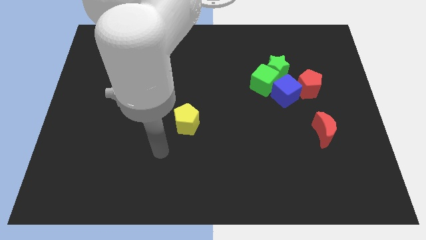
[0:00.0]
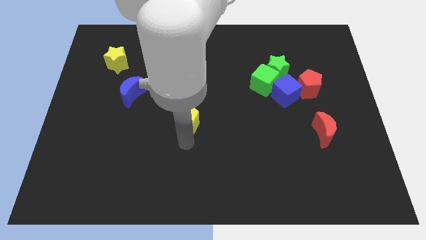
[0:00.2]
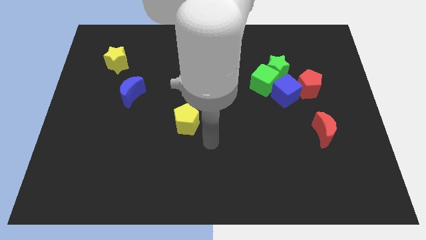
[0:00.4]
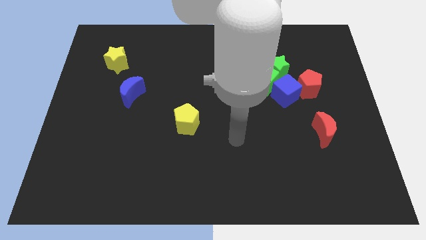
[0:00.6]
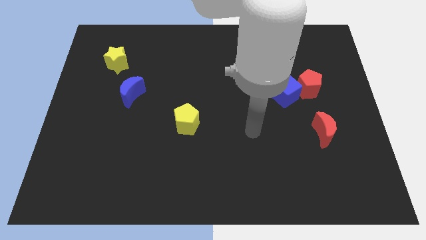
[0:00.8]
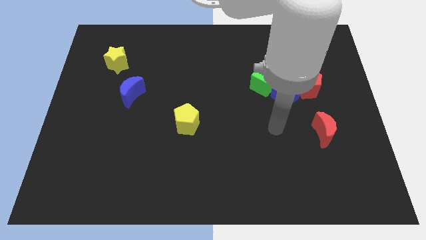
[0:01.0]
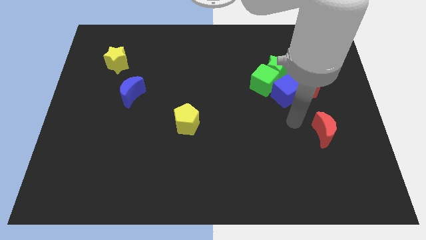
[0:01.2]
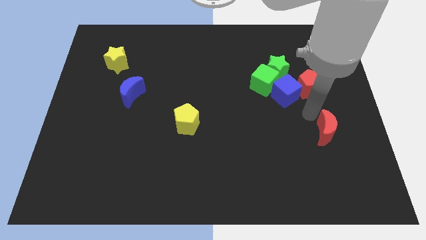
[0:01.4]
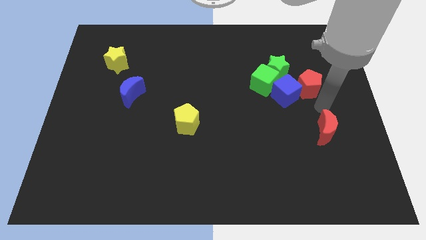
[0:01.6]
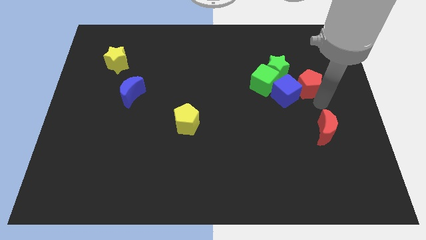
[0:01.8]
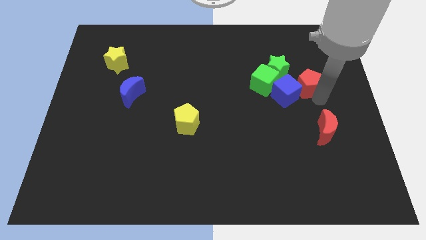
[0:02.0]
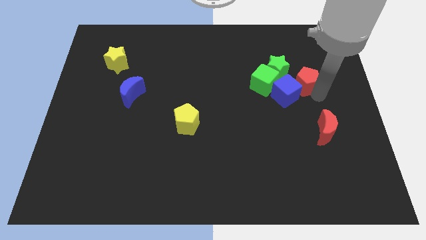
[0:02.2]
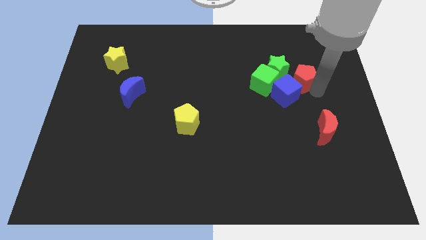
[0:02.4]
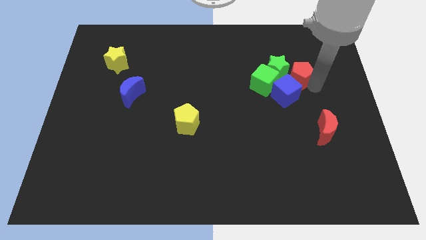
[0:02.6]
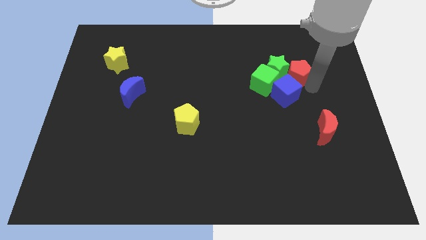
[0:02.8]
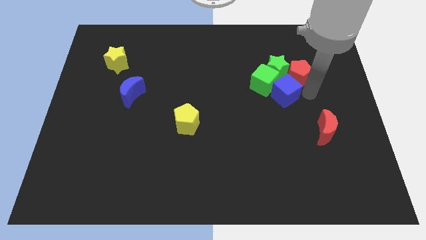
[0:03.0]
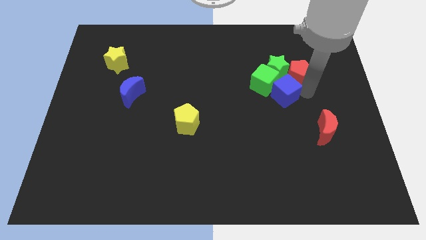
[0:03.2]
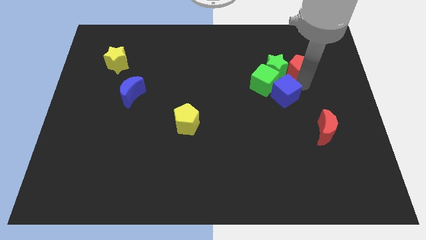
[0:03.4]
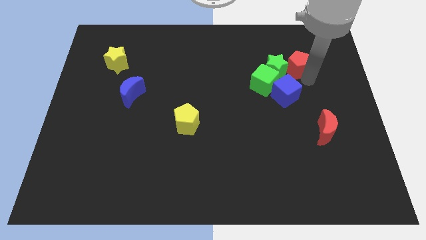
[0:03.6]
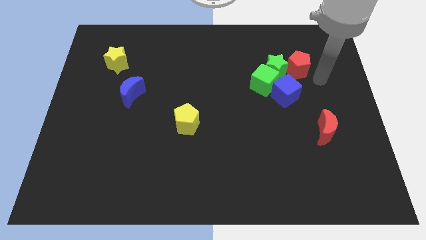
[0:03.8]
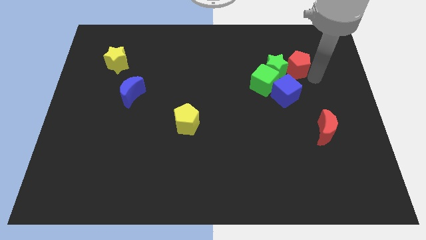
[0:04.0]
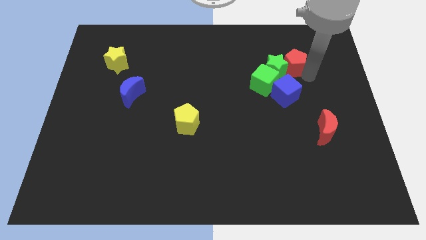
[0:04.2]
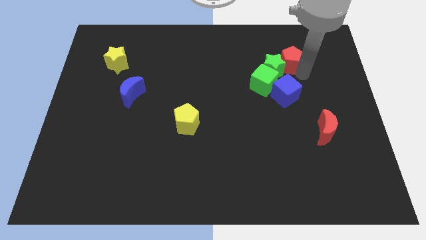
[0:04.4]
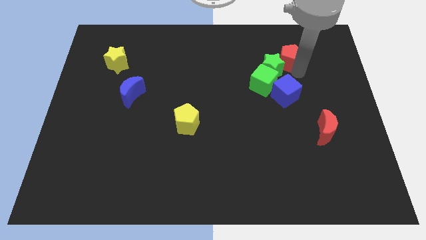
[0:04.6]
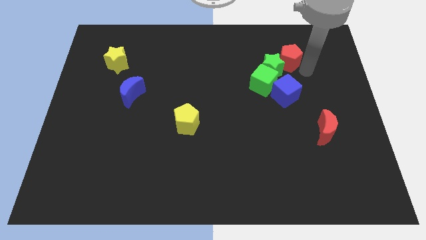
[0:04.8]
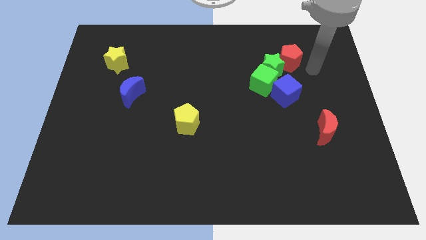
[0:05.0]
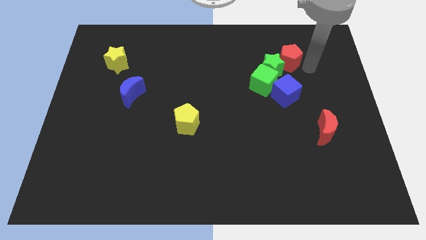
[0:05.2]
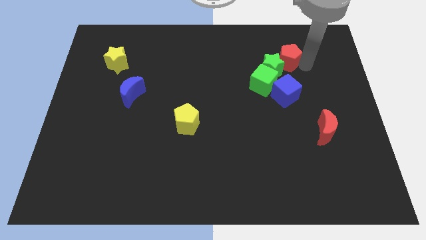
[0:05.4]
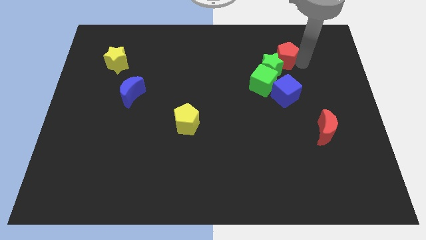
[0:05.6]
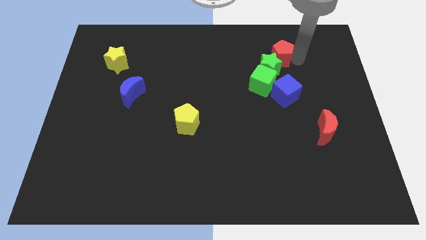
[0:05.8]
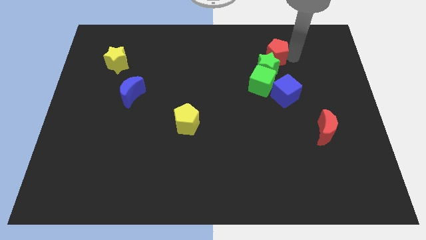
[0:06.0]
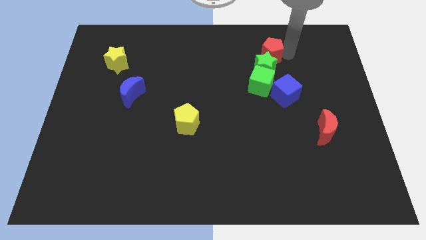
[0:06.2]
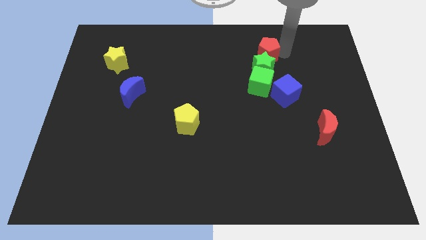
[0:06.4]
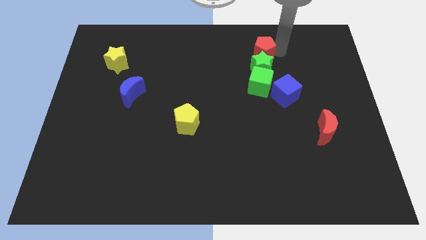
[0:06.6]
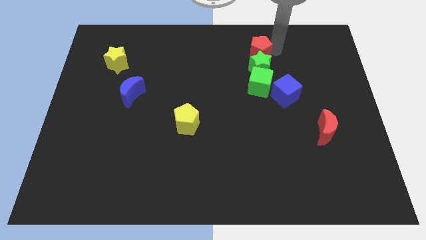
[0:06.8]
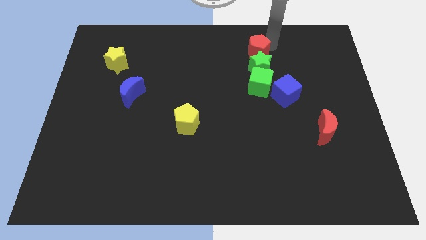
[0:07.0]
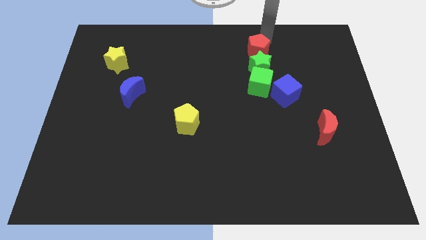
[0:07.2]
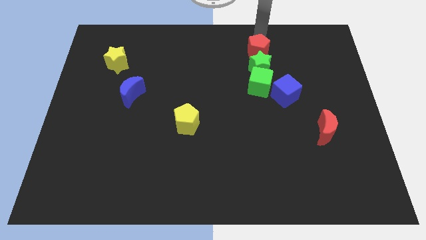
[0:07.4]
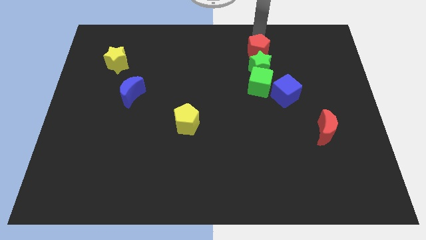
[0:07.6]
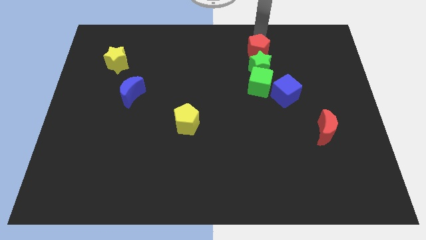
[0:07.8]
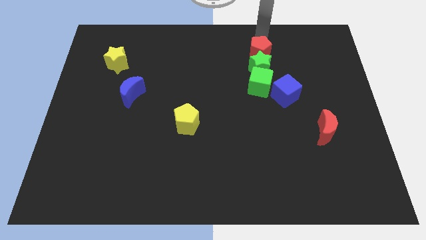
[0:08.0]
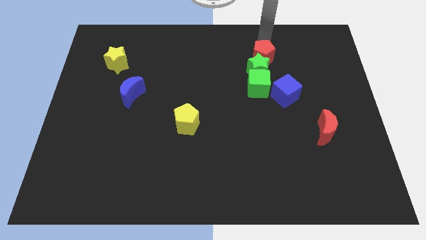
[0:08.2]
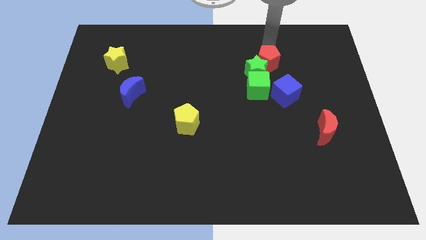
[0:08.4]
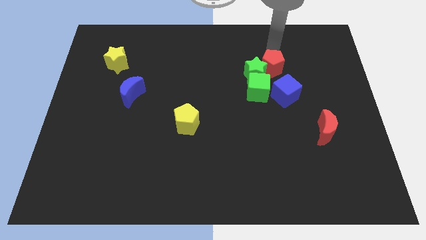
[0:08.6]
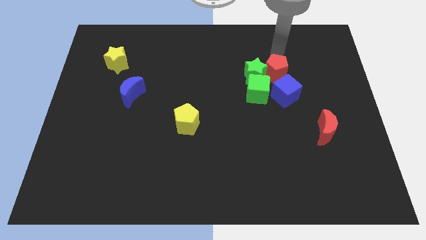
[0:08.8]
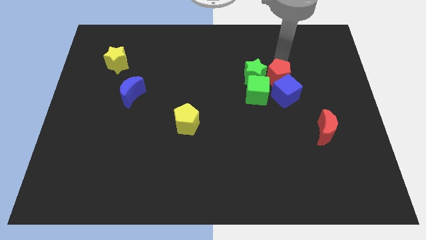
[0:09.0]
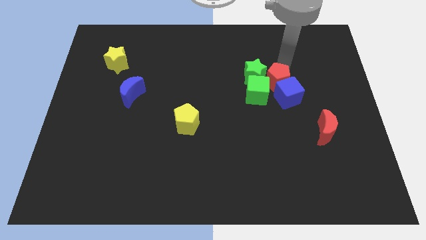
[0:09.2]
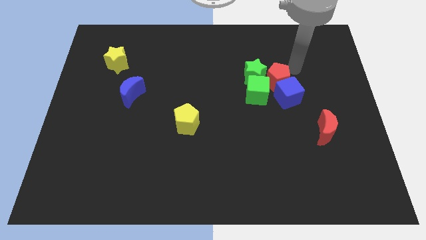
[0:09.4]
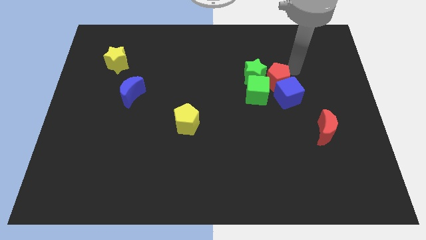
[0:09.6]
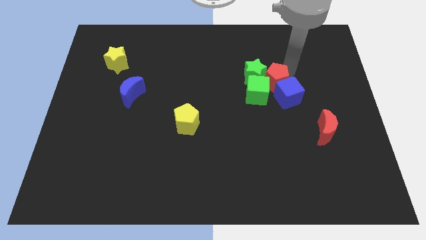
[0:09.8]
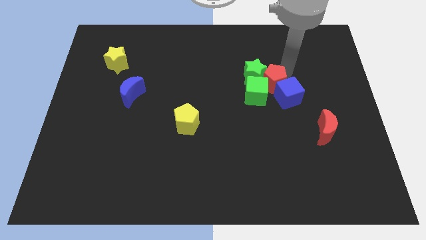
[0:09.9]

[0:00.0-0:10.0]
put the red pentagon next to the green cube

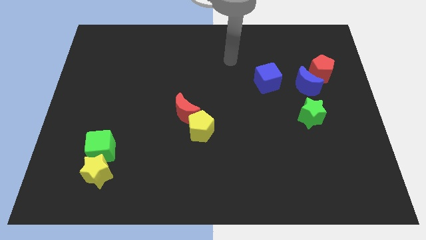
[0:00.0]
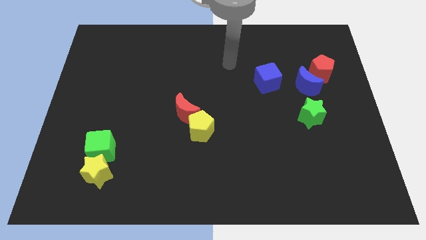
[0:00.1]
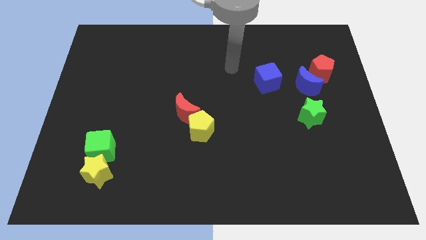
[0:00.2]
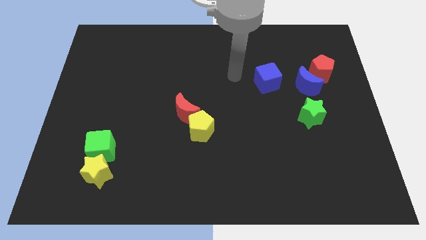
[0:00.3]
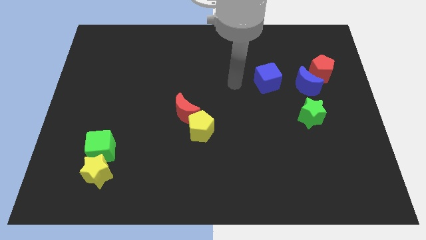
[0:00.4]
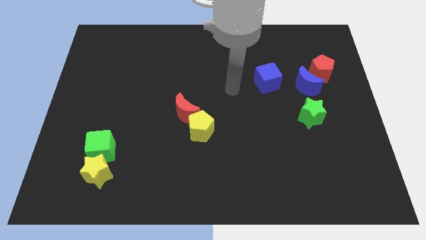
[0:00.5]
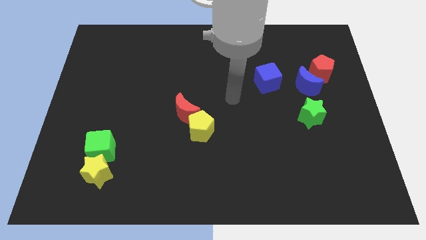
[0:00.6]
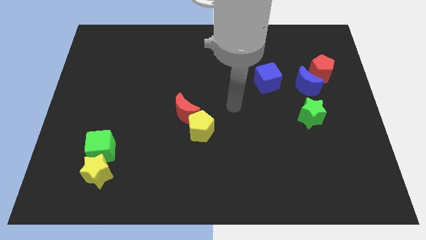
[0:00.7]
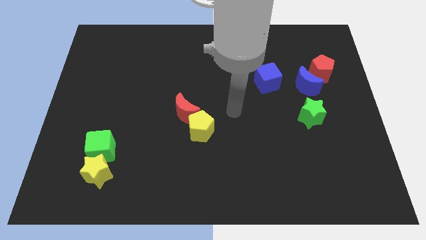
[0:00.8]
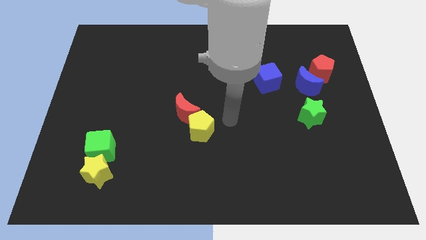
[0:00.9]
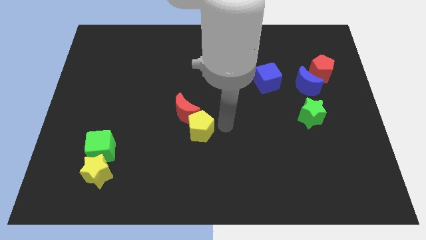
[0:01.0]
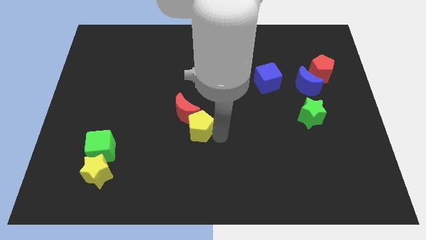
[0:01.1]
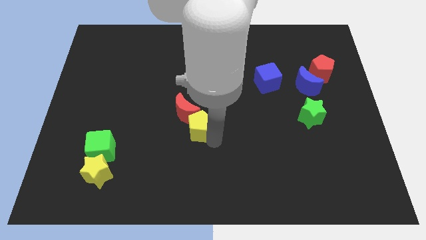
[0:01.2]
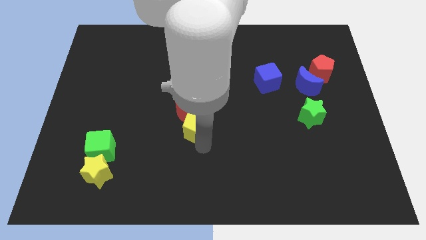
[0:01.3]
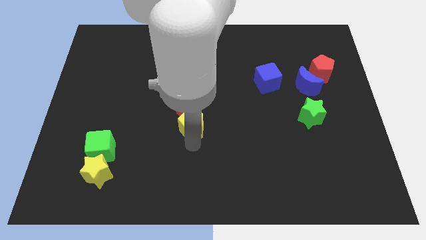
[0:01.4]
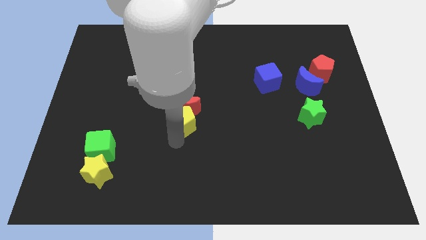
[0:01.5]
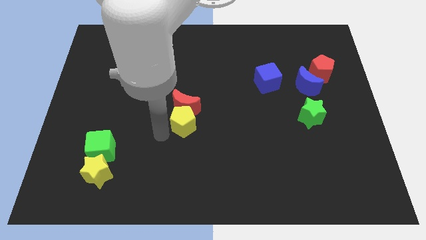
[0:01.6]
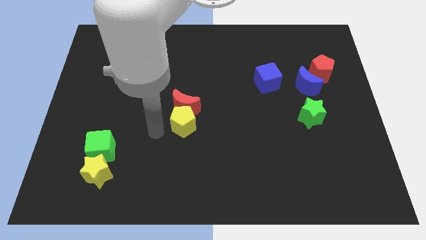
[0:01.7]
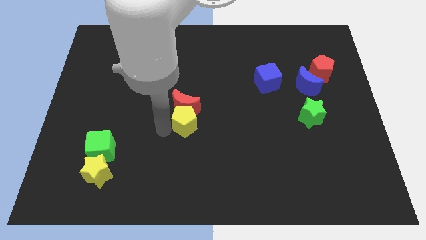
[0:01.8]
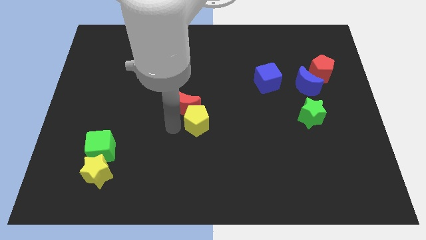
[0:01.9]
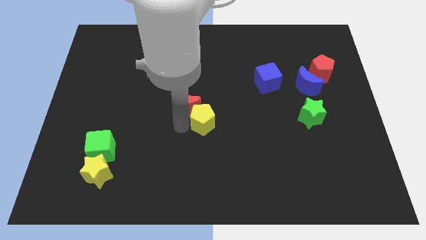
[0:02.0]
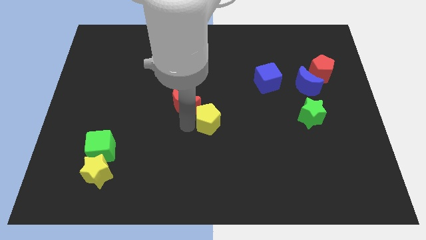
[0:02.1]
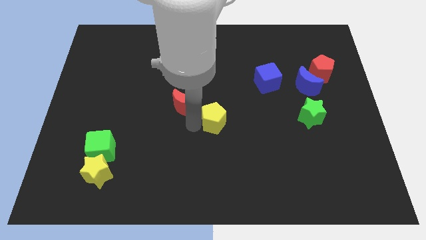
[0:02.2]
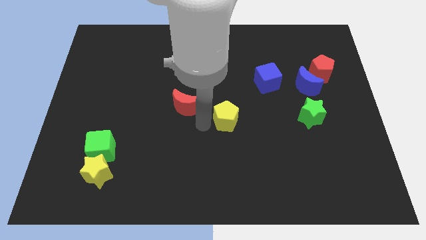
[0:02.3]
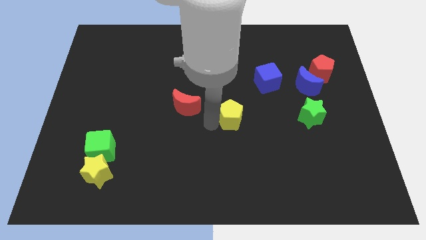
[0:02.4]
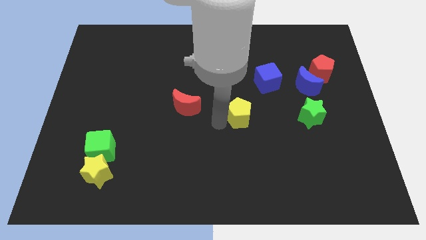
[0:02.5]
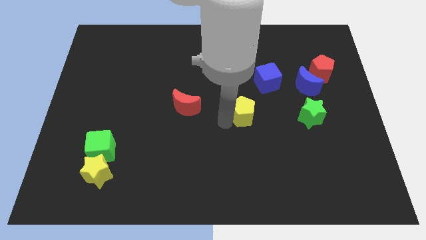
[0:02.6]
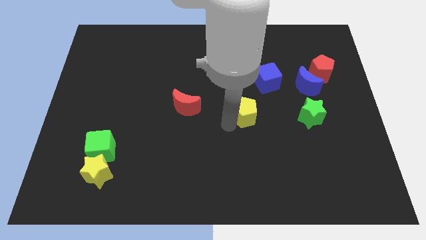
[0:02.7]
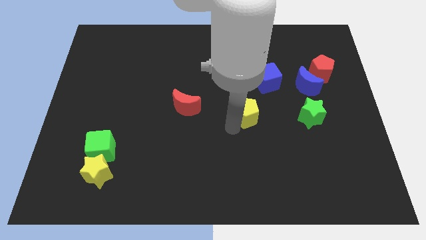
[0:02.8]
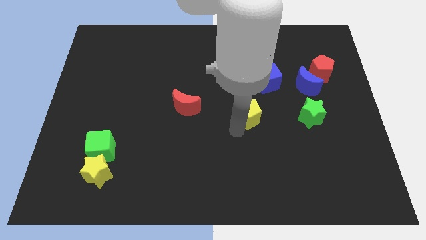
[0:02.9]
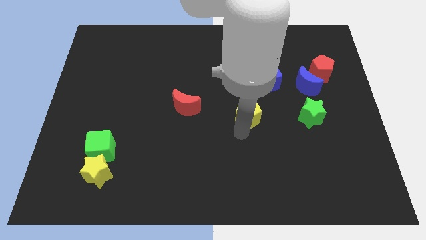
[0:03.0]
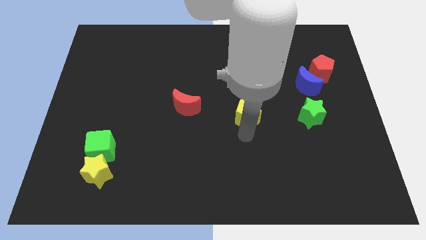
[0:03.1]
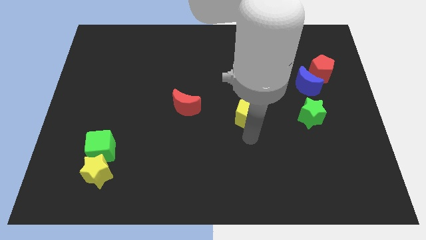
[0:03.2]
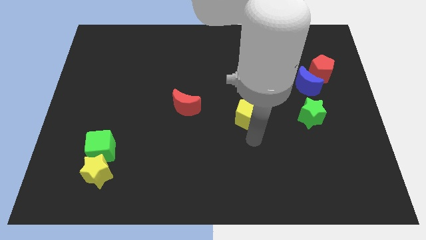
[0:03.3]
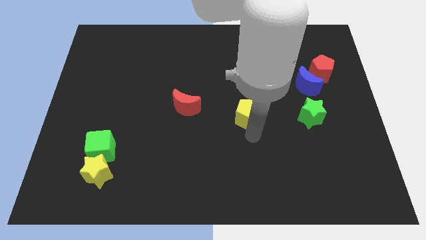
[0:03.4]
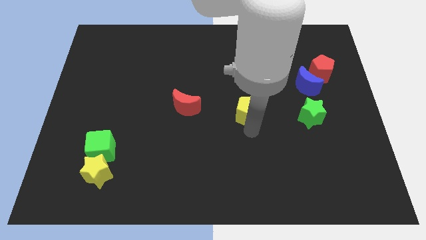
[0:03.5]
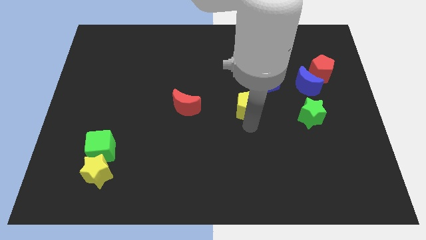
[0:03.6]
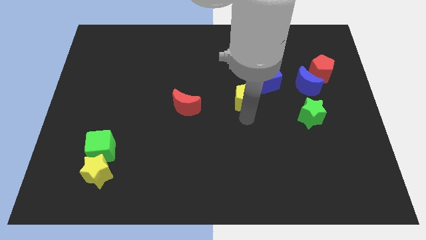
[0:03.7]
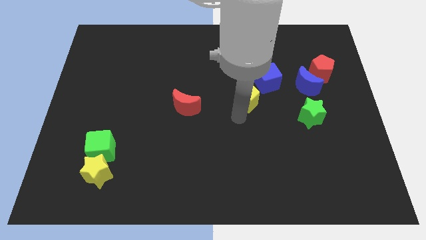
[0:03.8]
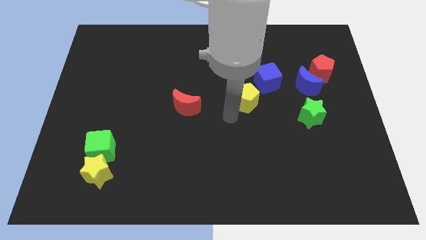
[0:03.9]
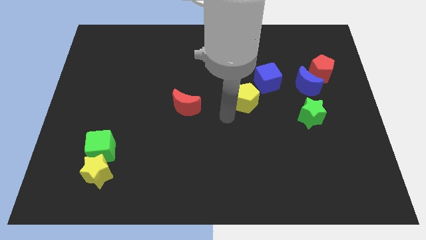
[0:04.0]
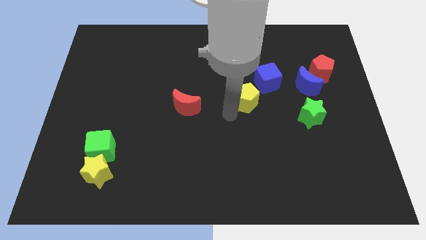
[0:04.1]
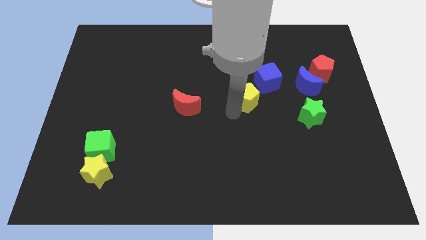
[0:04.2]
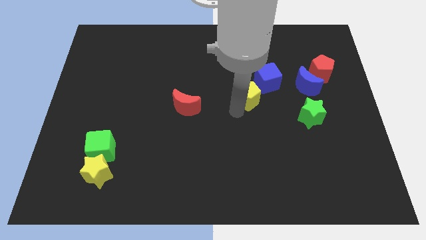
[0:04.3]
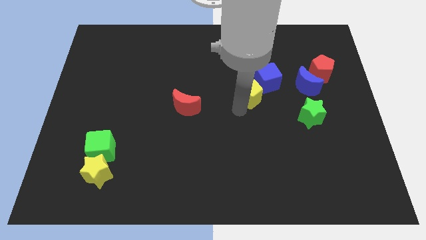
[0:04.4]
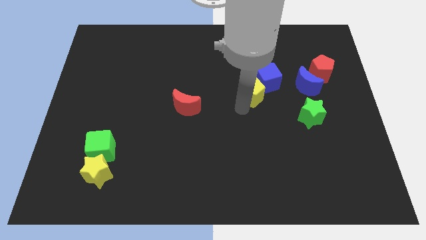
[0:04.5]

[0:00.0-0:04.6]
put the yellow pentagon to the blue cube
